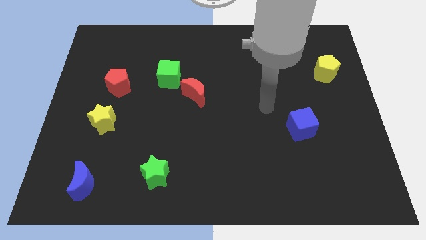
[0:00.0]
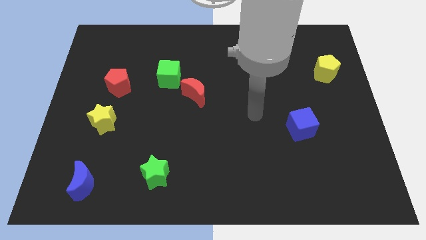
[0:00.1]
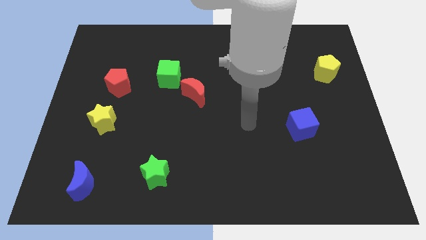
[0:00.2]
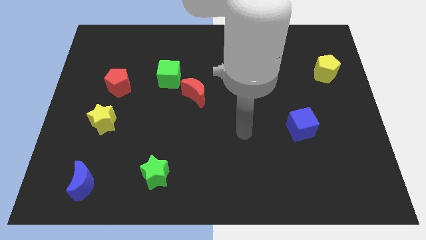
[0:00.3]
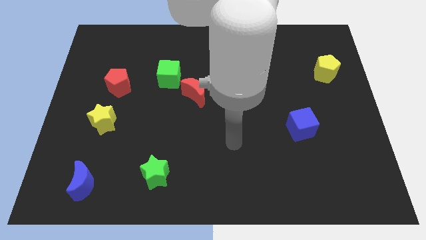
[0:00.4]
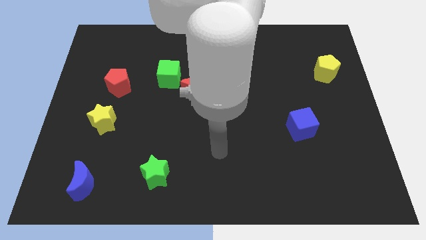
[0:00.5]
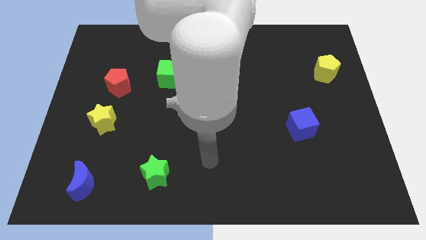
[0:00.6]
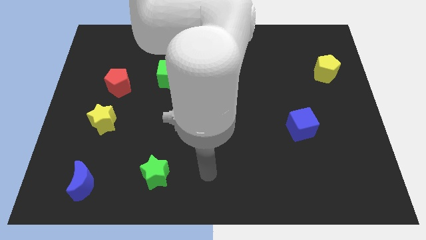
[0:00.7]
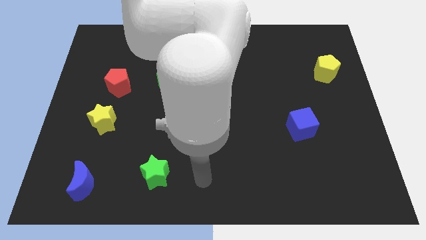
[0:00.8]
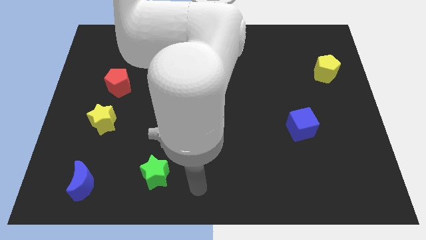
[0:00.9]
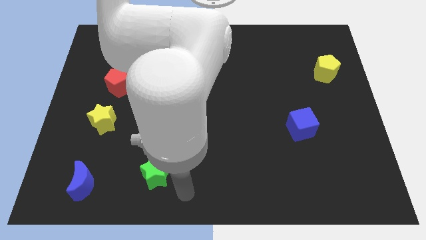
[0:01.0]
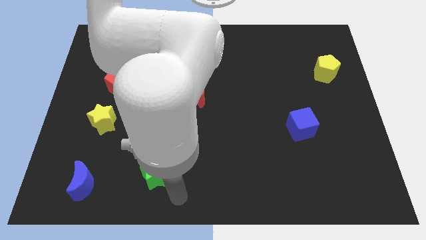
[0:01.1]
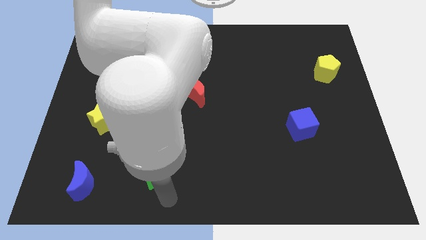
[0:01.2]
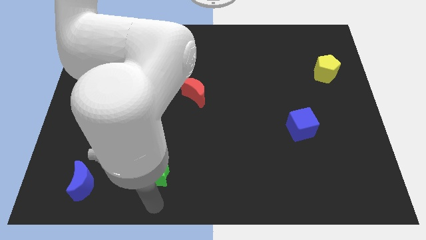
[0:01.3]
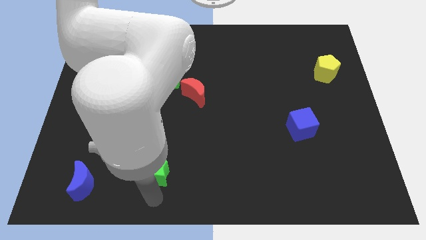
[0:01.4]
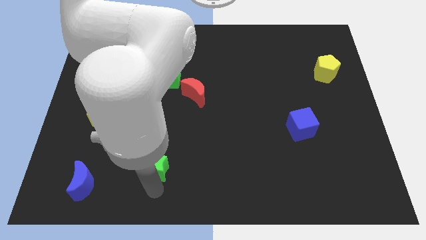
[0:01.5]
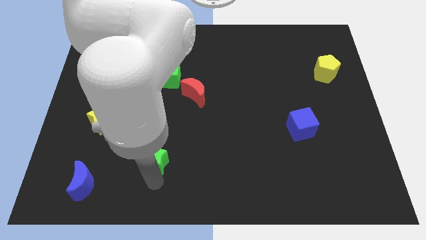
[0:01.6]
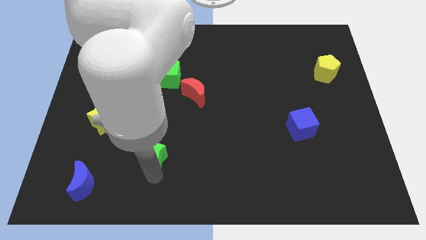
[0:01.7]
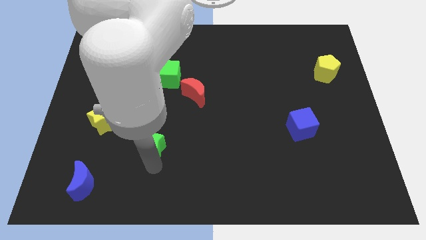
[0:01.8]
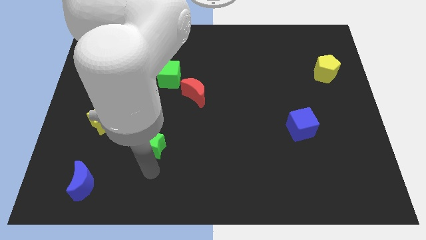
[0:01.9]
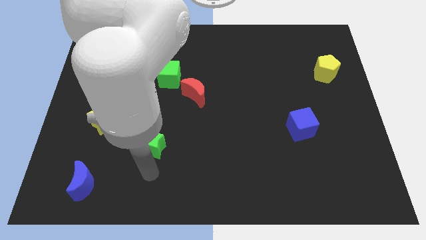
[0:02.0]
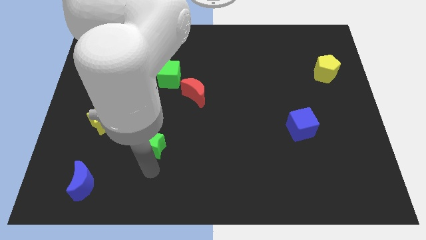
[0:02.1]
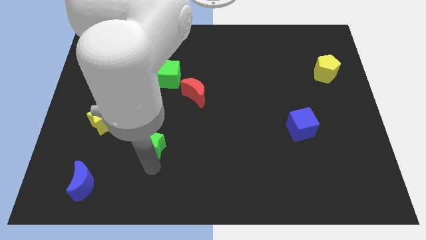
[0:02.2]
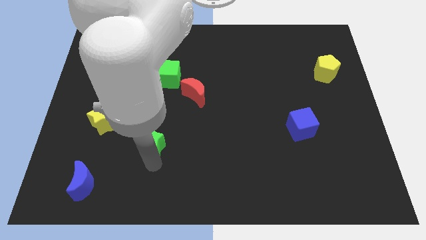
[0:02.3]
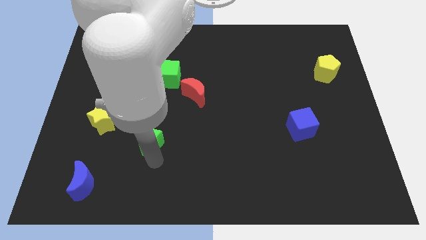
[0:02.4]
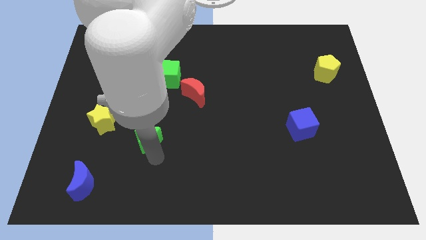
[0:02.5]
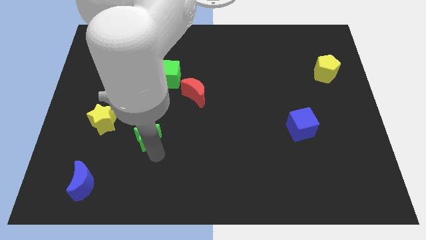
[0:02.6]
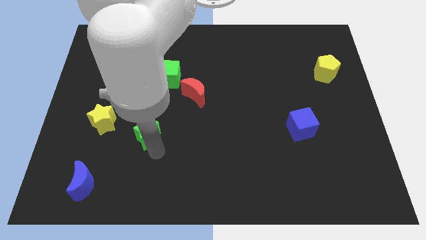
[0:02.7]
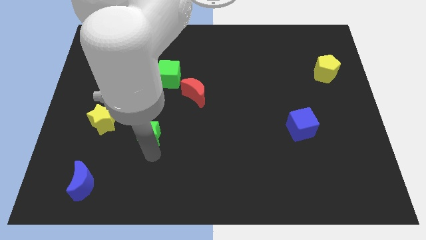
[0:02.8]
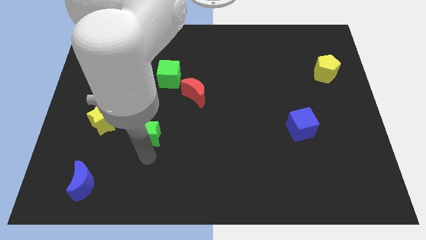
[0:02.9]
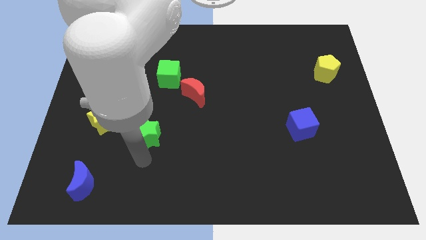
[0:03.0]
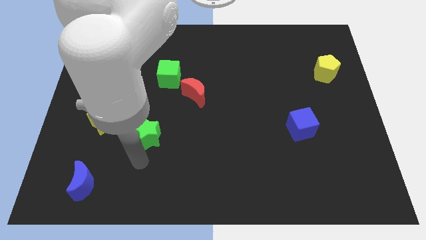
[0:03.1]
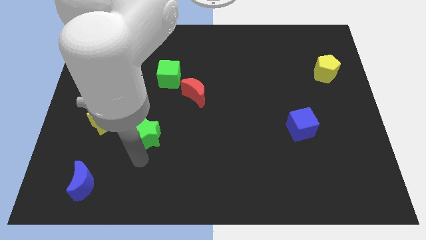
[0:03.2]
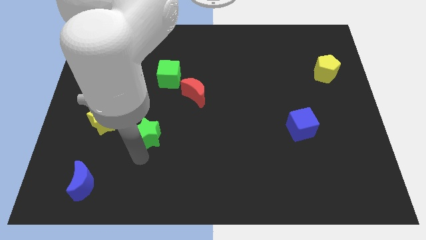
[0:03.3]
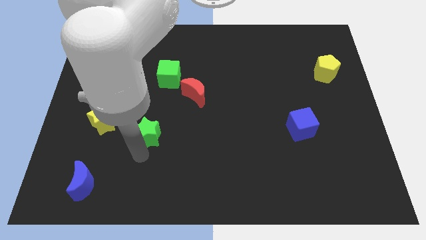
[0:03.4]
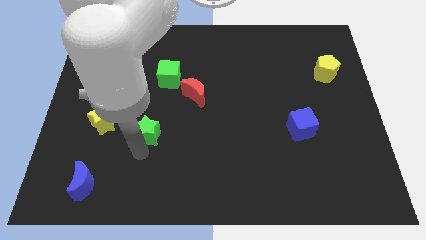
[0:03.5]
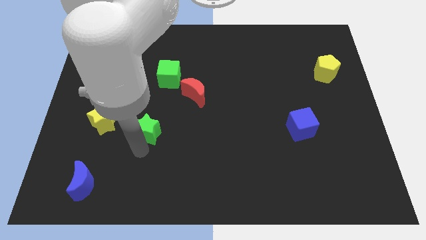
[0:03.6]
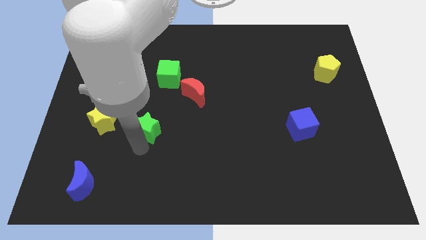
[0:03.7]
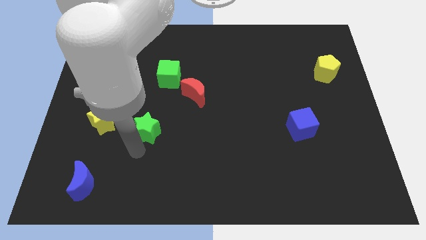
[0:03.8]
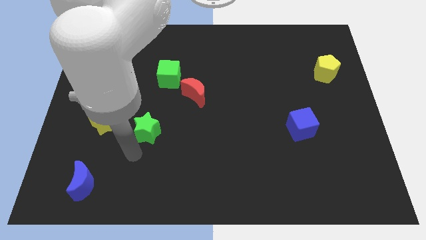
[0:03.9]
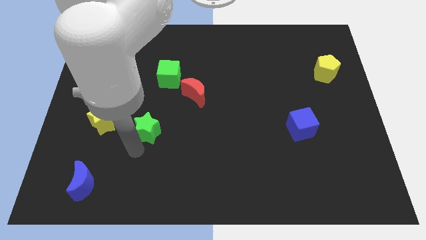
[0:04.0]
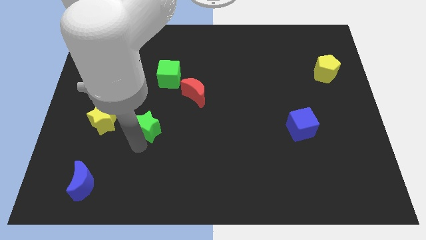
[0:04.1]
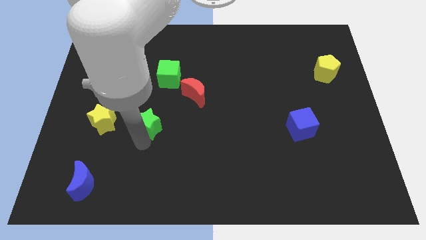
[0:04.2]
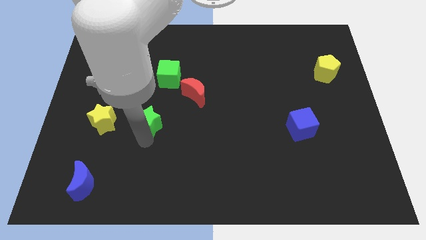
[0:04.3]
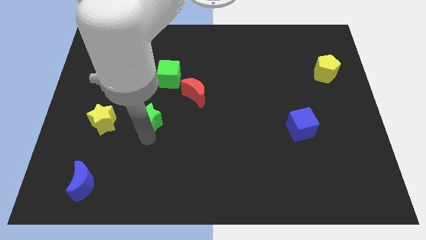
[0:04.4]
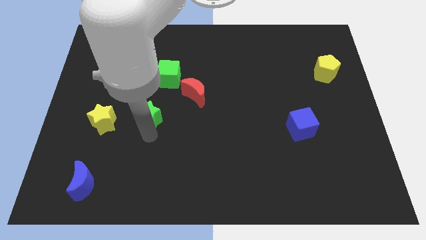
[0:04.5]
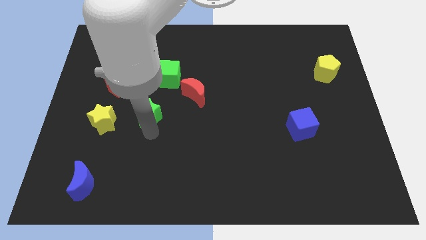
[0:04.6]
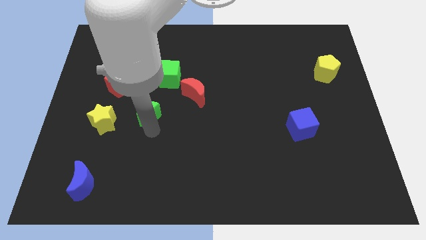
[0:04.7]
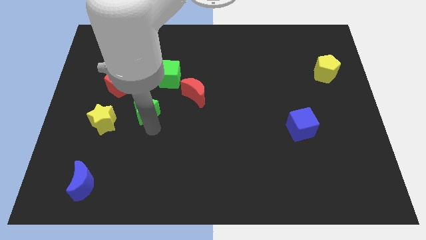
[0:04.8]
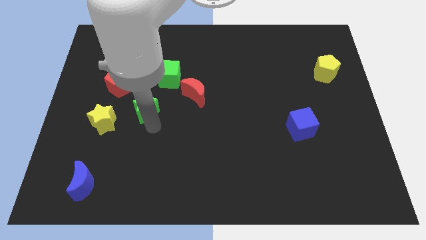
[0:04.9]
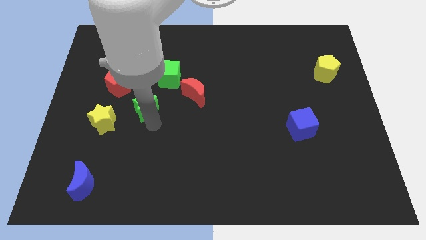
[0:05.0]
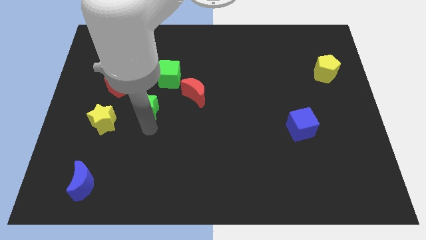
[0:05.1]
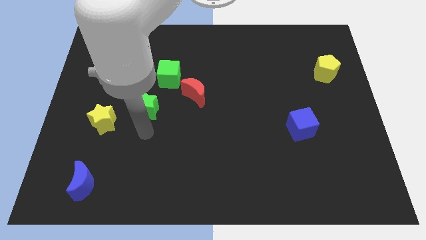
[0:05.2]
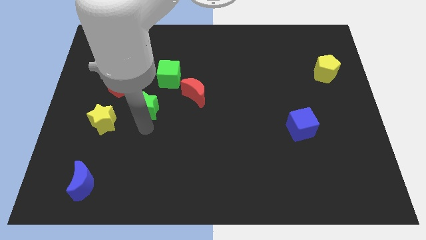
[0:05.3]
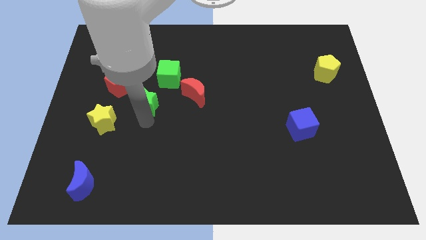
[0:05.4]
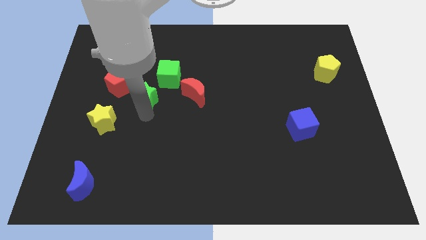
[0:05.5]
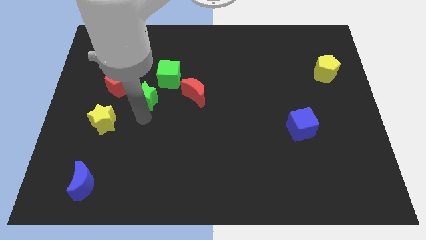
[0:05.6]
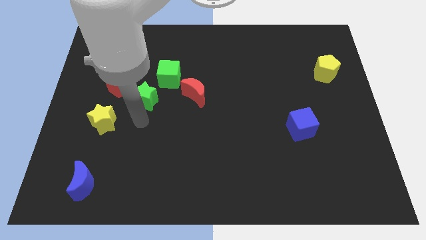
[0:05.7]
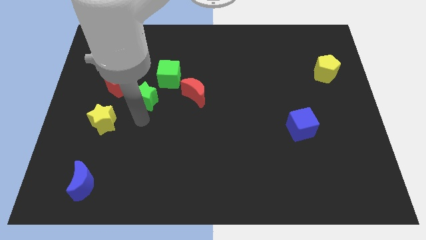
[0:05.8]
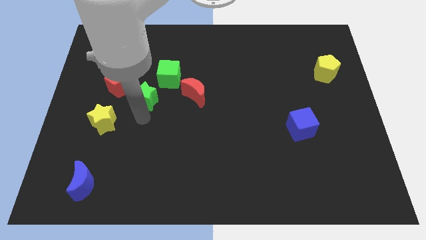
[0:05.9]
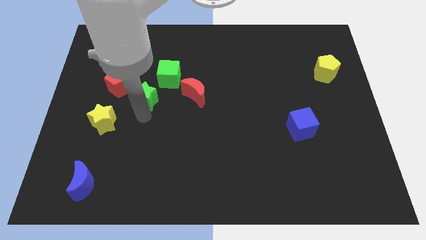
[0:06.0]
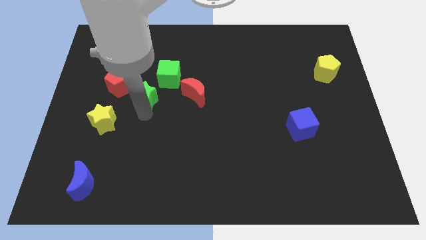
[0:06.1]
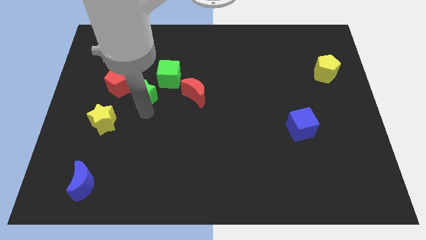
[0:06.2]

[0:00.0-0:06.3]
move the green star upwards

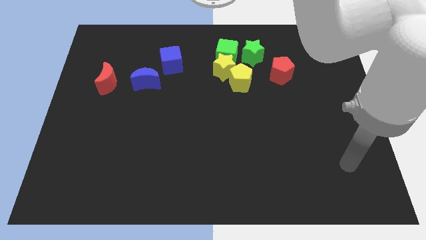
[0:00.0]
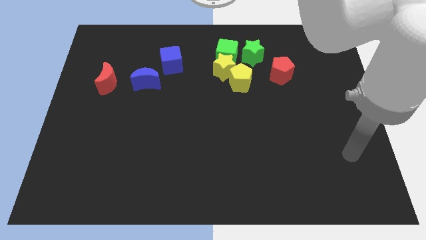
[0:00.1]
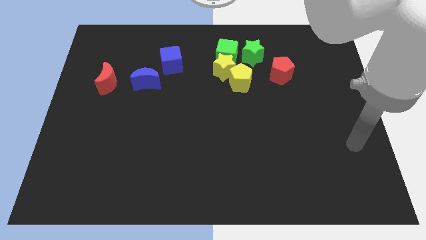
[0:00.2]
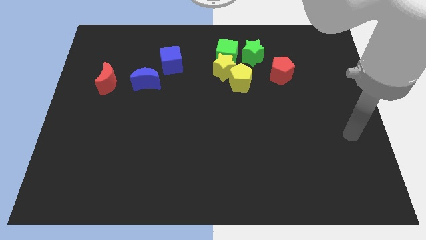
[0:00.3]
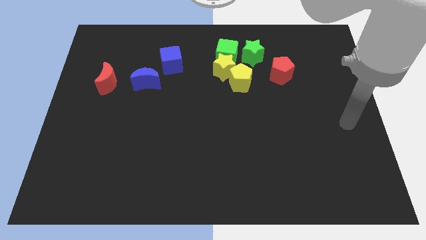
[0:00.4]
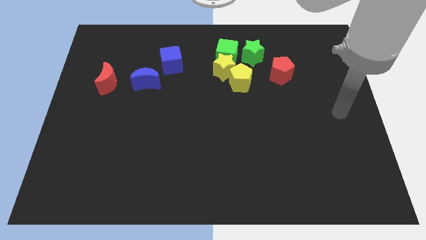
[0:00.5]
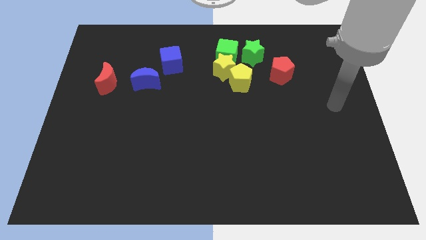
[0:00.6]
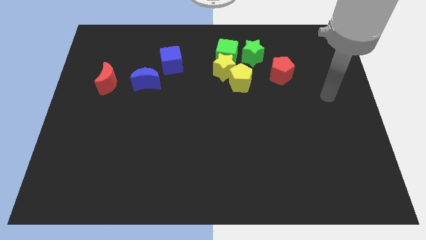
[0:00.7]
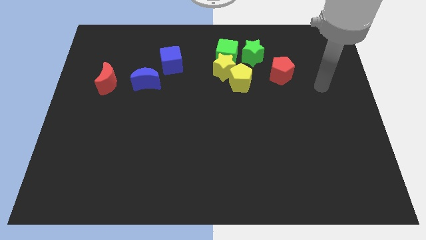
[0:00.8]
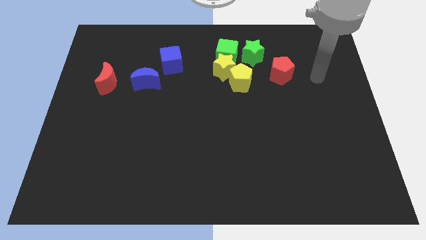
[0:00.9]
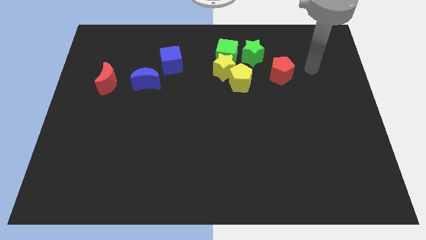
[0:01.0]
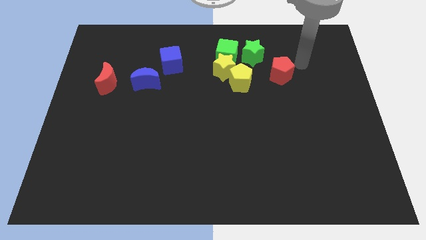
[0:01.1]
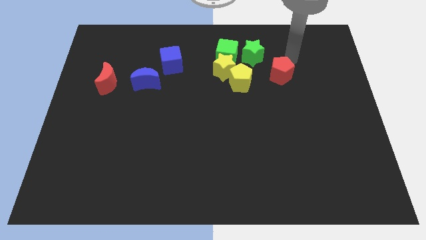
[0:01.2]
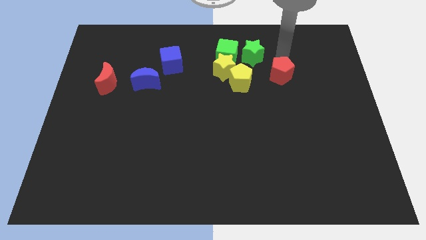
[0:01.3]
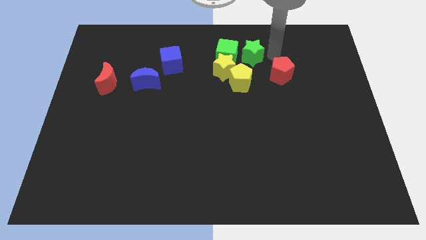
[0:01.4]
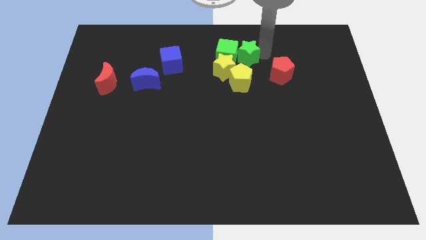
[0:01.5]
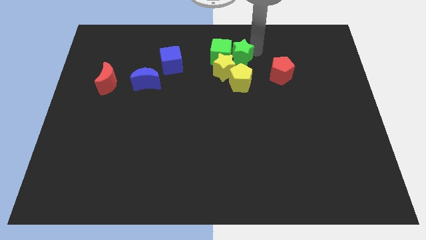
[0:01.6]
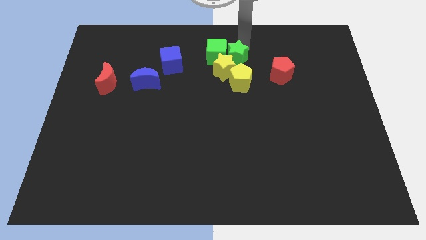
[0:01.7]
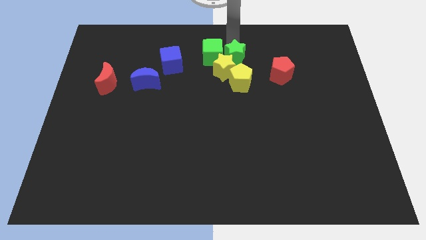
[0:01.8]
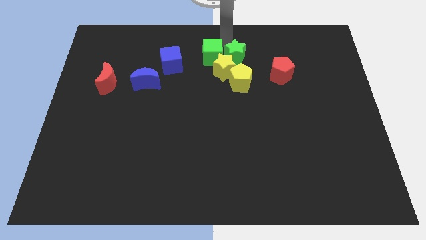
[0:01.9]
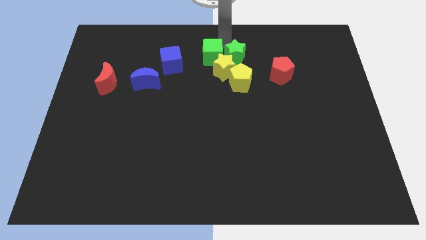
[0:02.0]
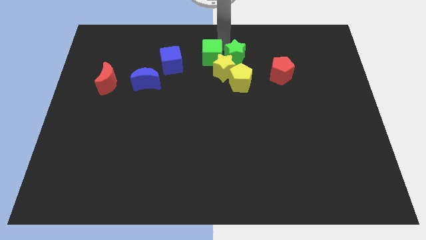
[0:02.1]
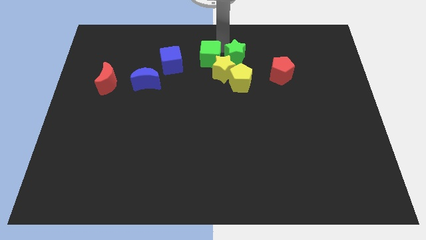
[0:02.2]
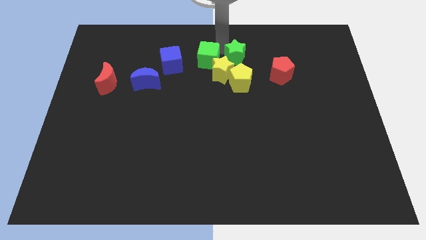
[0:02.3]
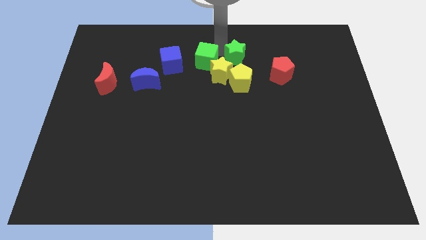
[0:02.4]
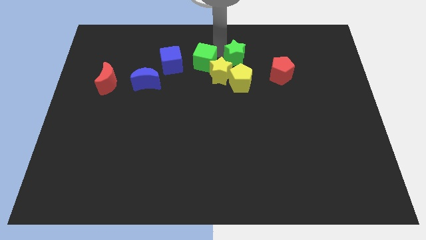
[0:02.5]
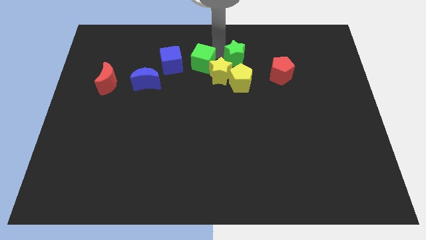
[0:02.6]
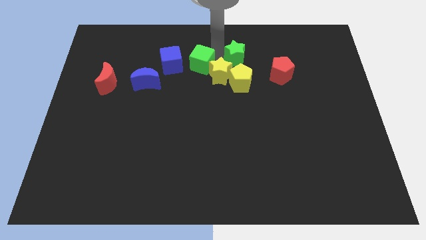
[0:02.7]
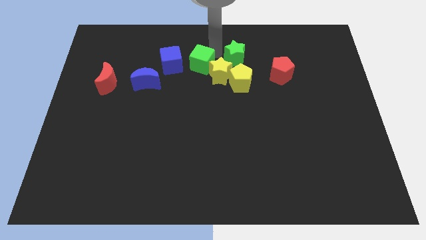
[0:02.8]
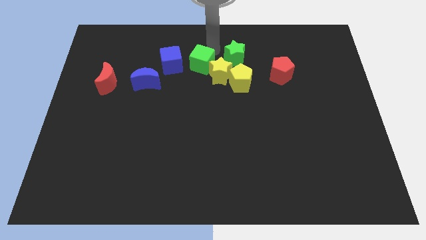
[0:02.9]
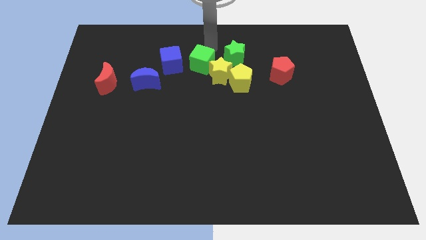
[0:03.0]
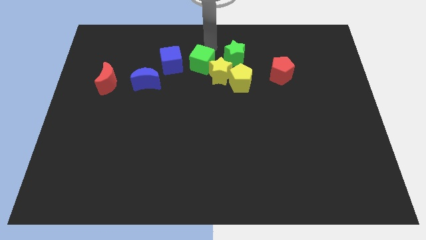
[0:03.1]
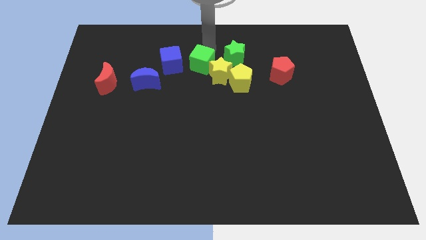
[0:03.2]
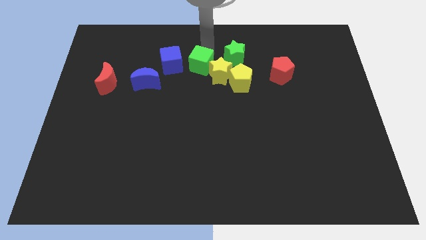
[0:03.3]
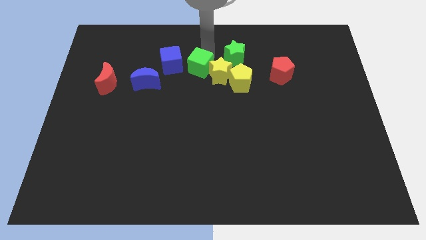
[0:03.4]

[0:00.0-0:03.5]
slide the green cube a bit diagonally downwards and left
